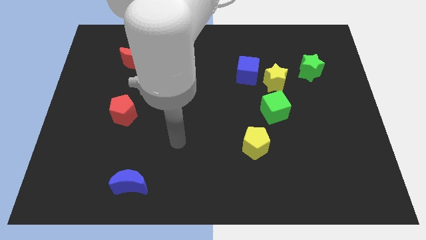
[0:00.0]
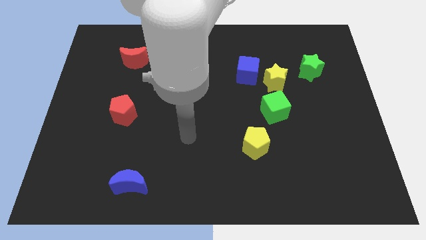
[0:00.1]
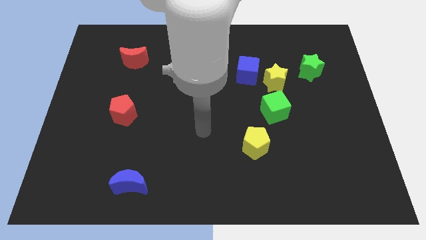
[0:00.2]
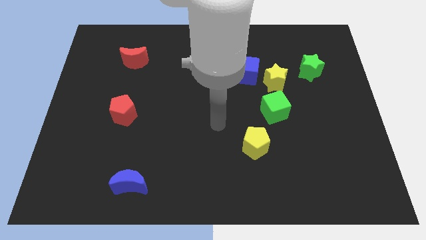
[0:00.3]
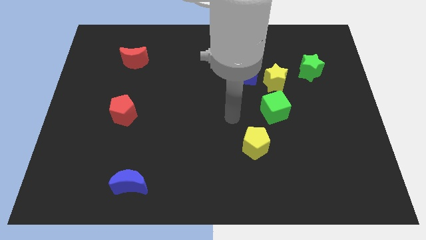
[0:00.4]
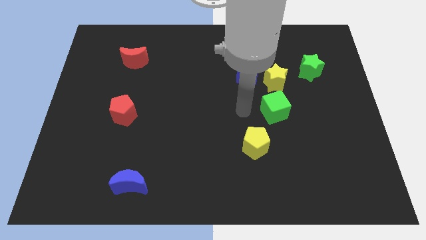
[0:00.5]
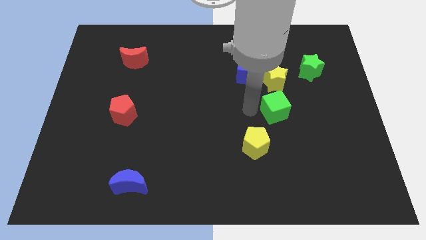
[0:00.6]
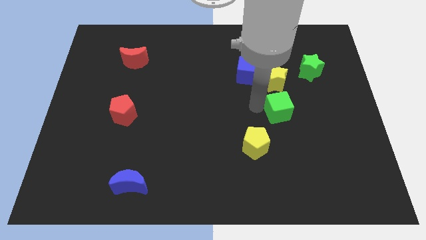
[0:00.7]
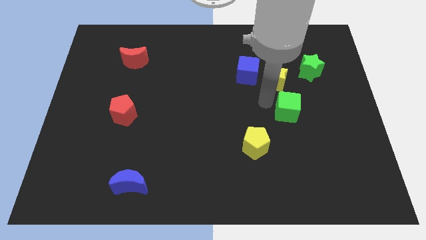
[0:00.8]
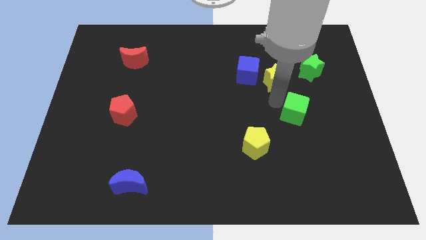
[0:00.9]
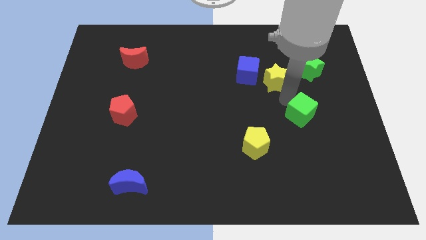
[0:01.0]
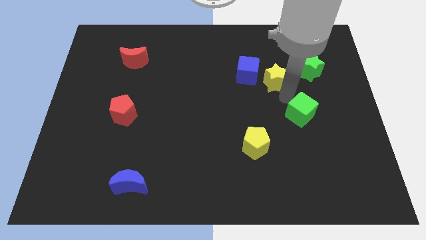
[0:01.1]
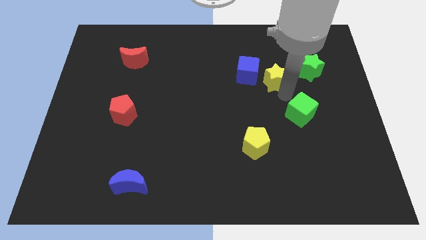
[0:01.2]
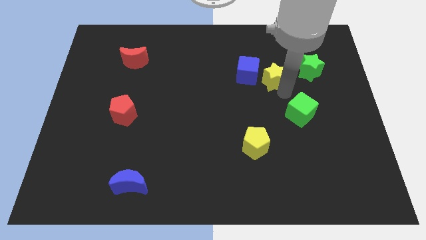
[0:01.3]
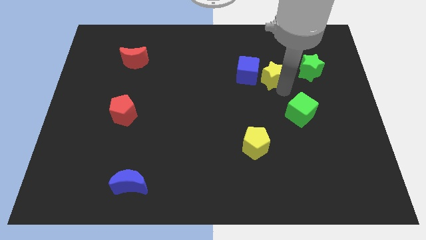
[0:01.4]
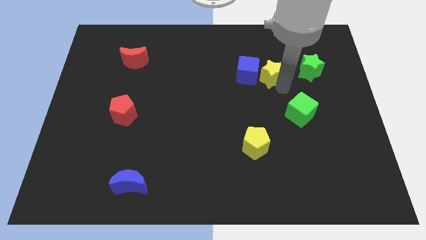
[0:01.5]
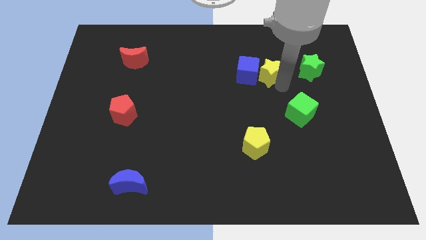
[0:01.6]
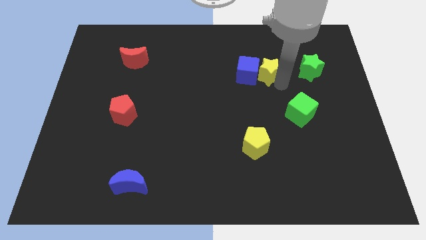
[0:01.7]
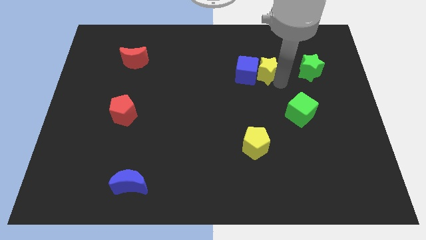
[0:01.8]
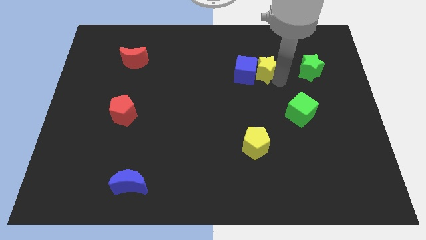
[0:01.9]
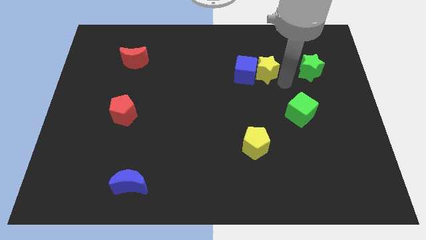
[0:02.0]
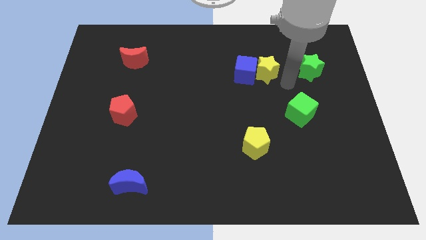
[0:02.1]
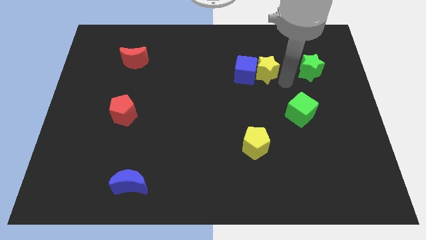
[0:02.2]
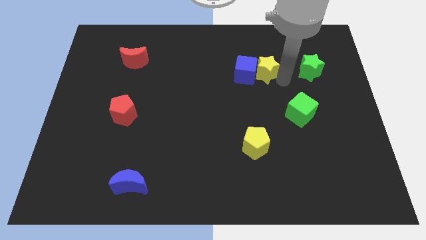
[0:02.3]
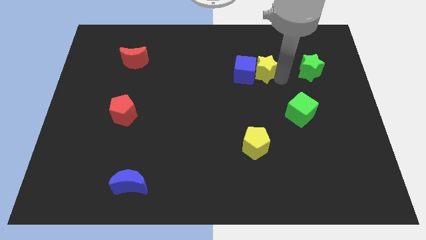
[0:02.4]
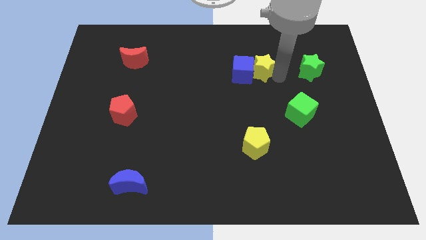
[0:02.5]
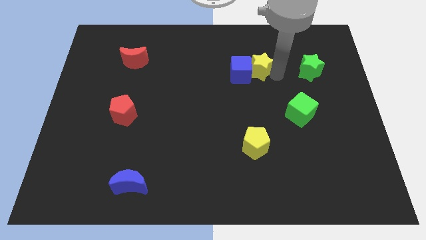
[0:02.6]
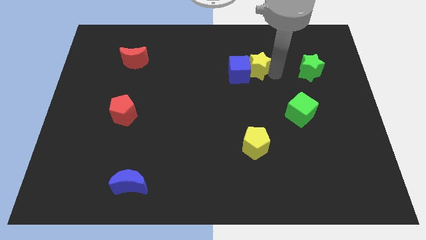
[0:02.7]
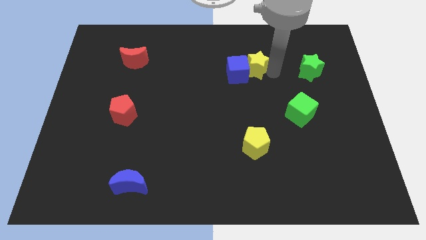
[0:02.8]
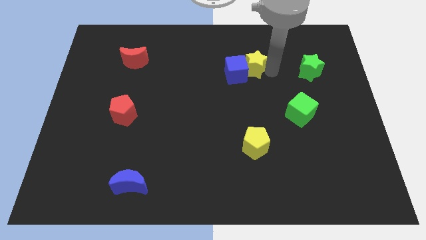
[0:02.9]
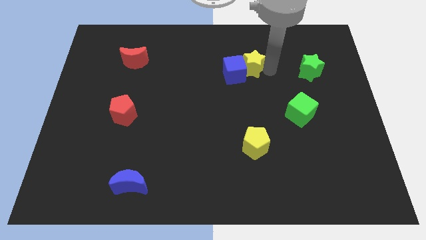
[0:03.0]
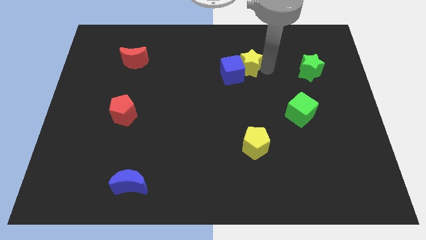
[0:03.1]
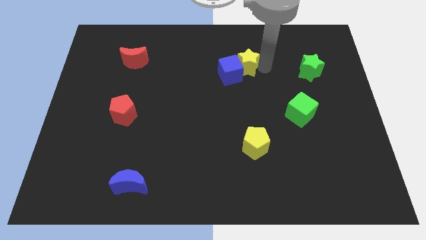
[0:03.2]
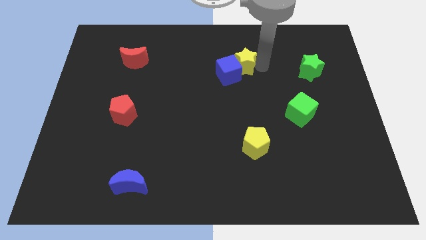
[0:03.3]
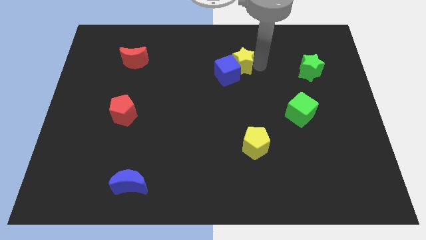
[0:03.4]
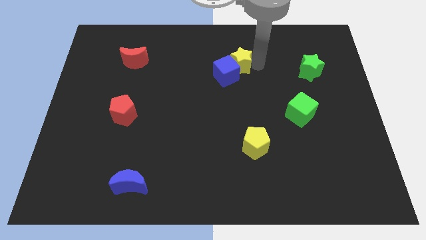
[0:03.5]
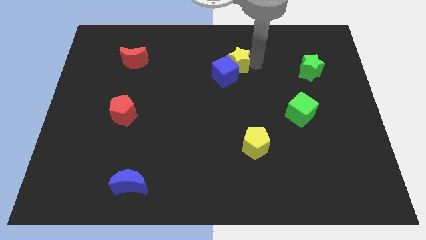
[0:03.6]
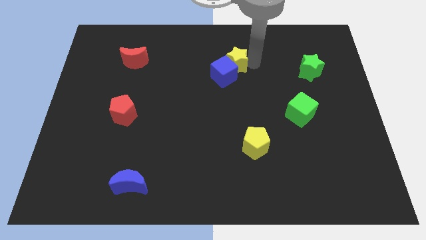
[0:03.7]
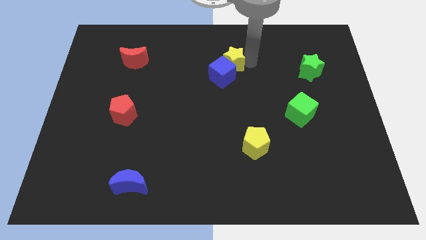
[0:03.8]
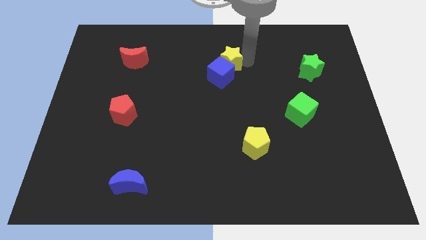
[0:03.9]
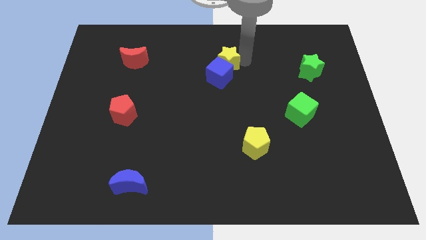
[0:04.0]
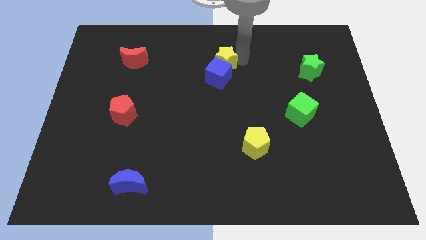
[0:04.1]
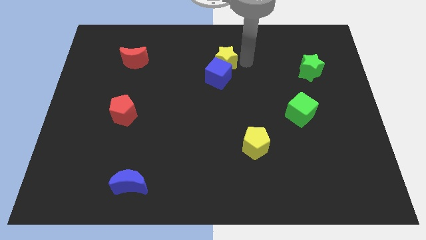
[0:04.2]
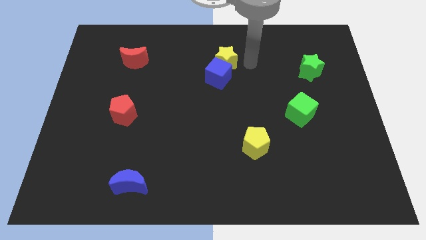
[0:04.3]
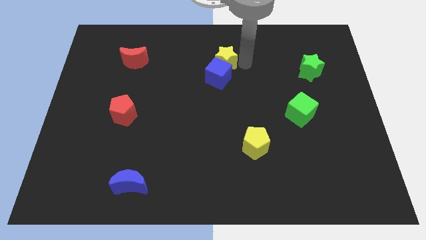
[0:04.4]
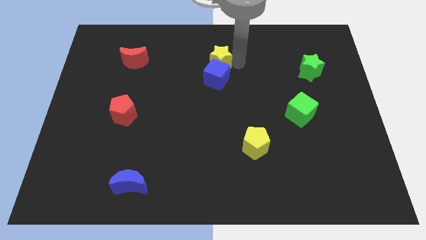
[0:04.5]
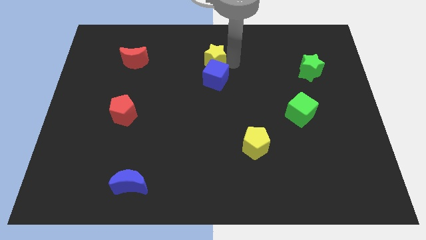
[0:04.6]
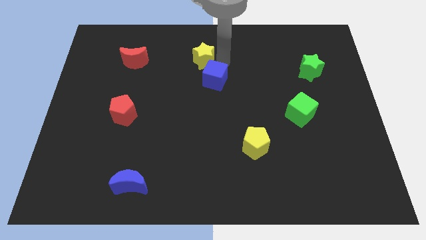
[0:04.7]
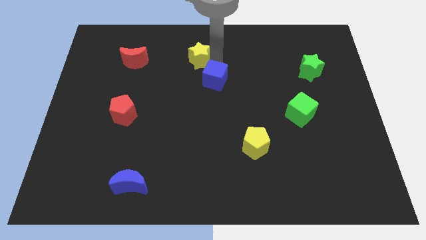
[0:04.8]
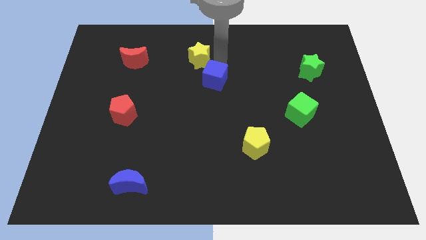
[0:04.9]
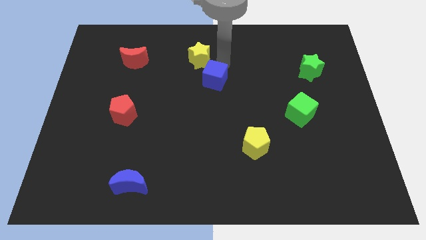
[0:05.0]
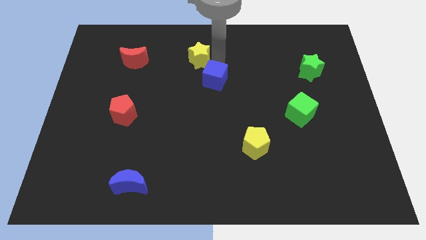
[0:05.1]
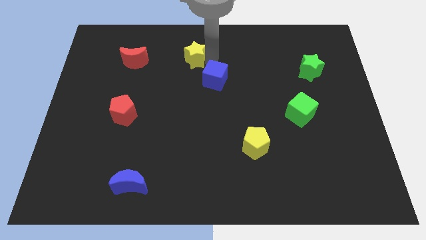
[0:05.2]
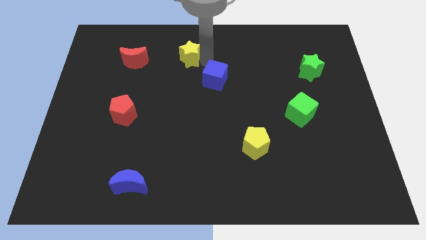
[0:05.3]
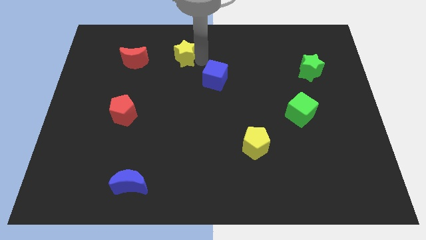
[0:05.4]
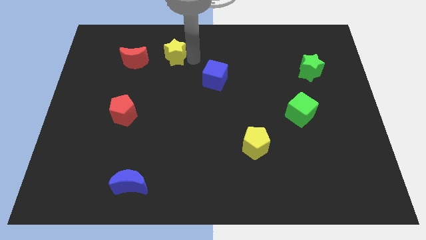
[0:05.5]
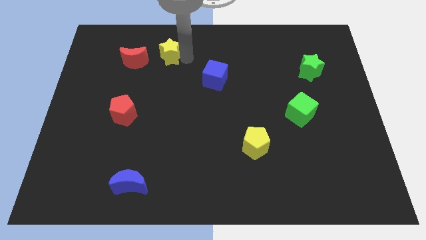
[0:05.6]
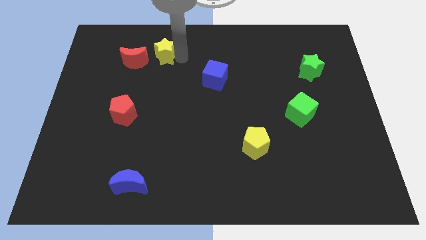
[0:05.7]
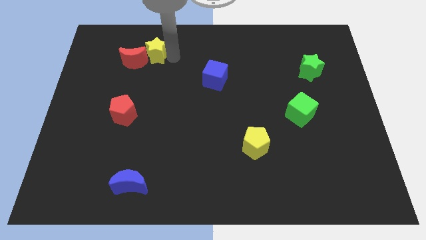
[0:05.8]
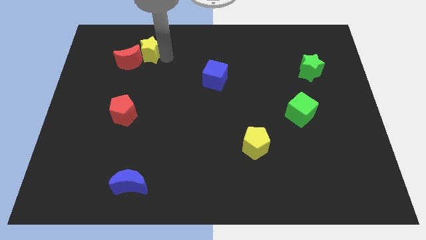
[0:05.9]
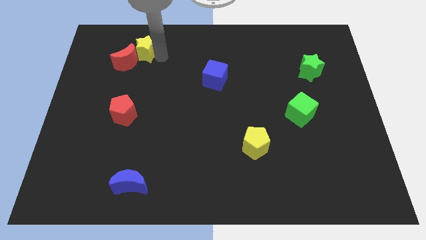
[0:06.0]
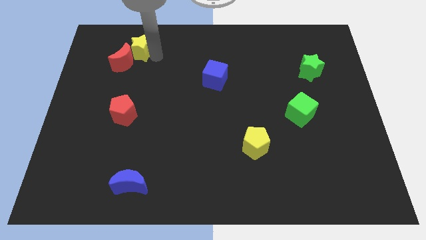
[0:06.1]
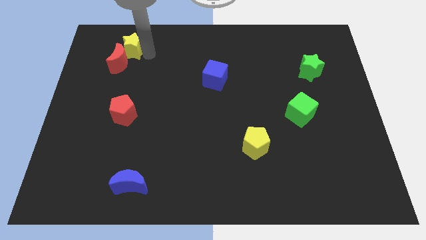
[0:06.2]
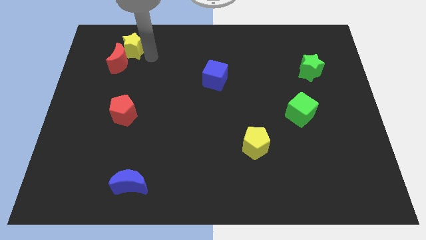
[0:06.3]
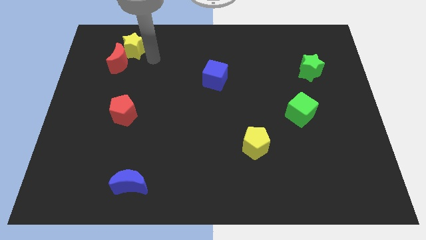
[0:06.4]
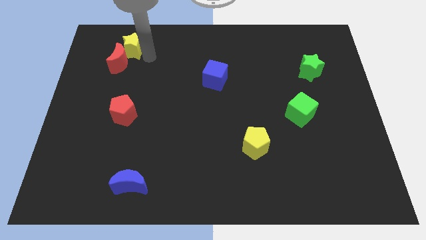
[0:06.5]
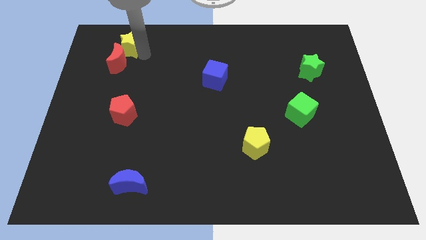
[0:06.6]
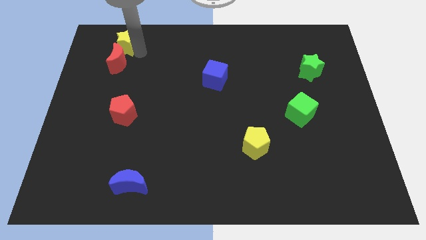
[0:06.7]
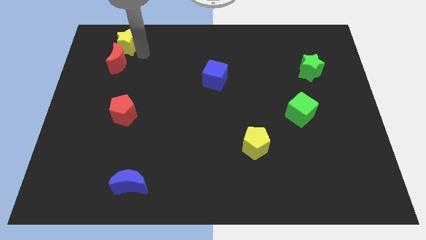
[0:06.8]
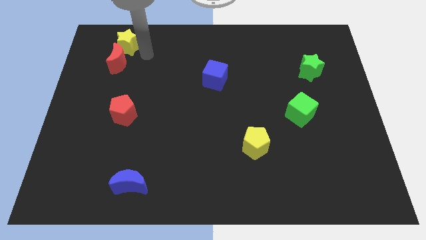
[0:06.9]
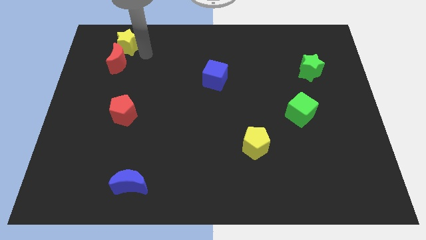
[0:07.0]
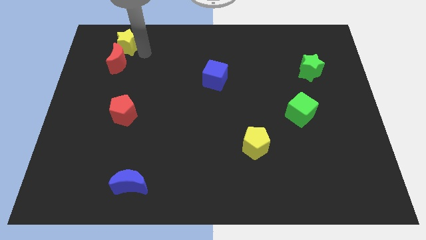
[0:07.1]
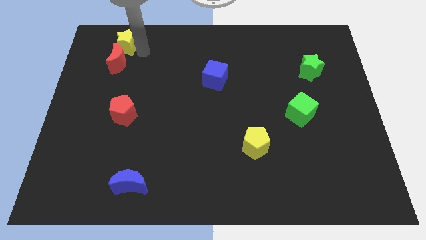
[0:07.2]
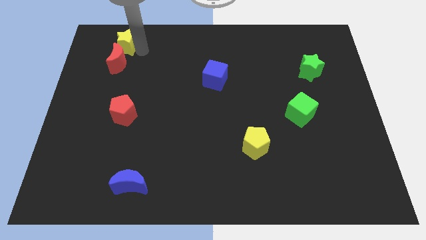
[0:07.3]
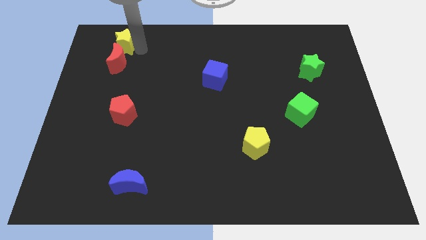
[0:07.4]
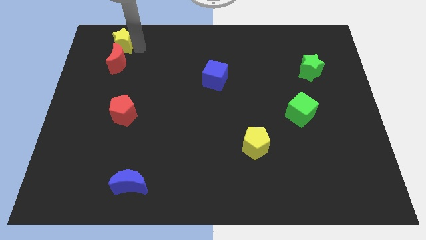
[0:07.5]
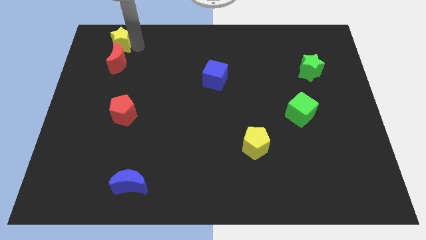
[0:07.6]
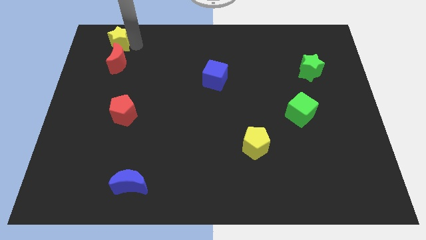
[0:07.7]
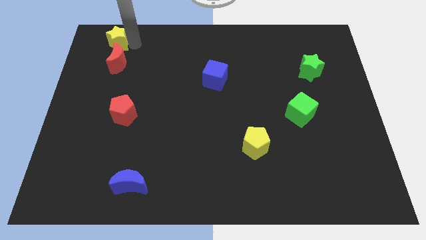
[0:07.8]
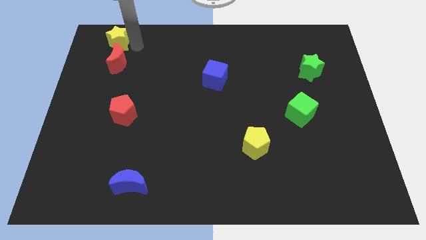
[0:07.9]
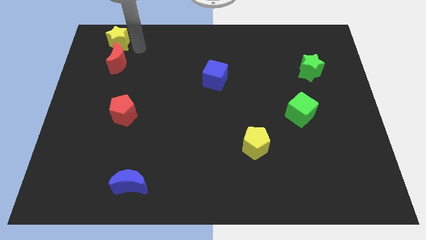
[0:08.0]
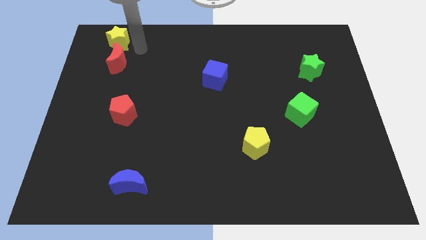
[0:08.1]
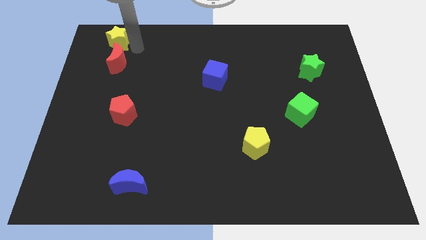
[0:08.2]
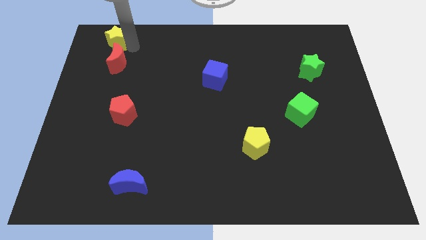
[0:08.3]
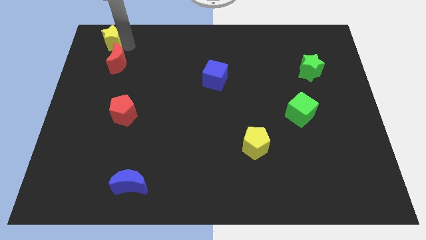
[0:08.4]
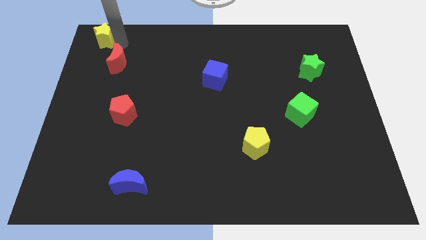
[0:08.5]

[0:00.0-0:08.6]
put the yellow star to the top left of the board
